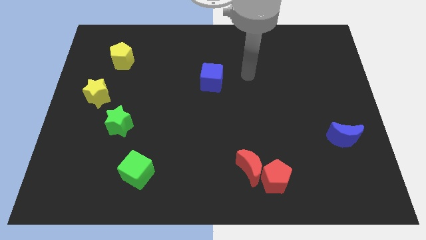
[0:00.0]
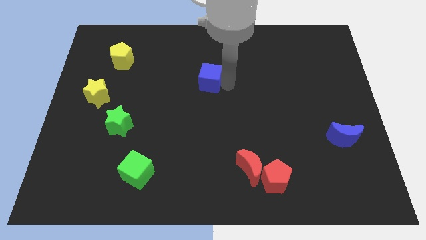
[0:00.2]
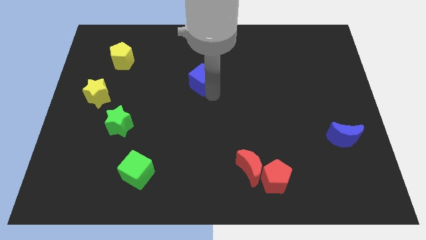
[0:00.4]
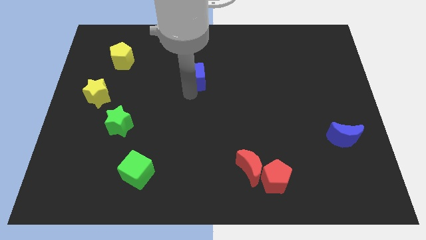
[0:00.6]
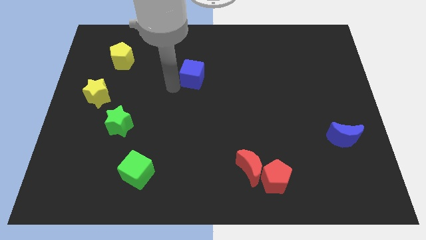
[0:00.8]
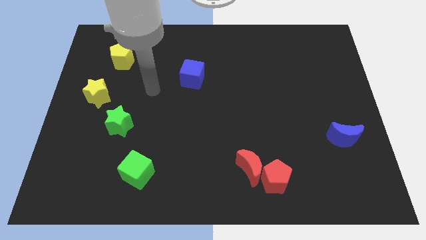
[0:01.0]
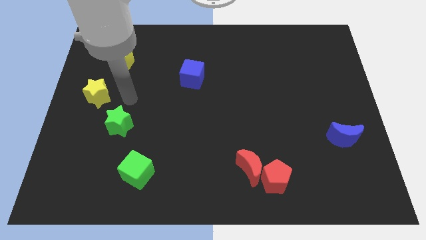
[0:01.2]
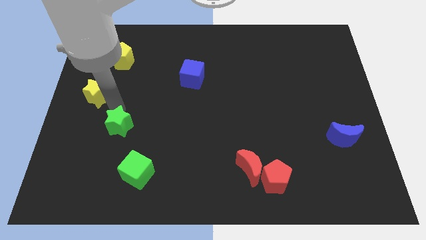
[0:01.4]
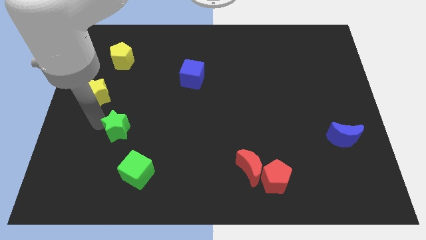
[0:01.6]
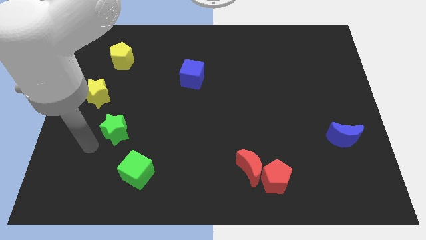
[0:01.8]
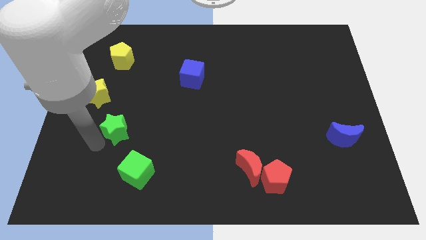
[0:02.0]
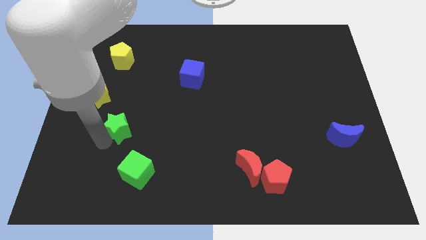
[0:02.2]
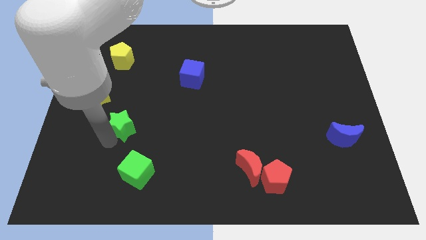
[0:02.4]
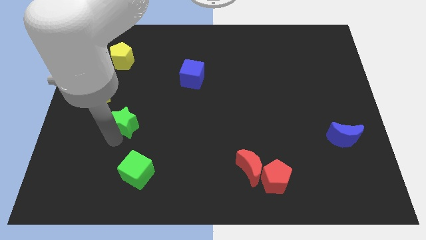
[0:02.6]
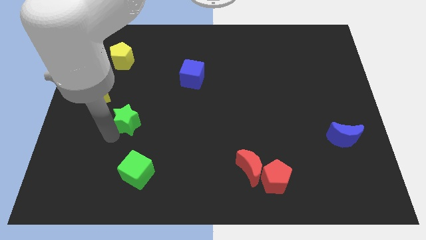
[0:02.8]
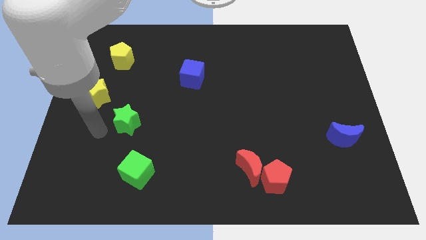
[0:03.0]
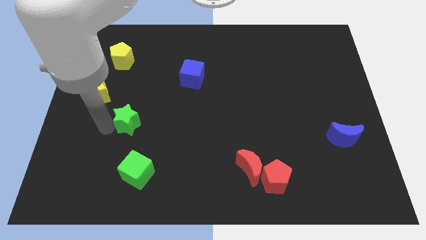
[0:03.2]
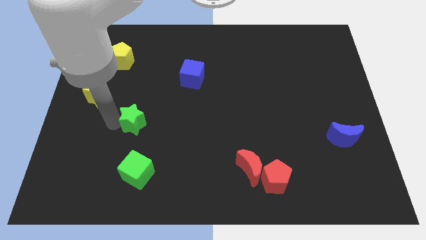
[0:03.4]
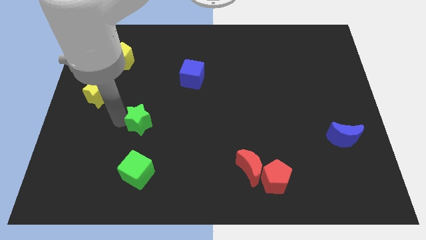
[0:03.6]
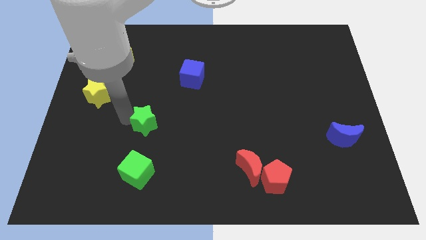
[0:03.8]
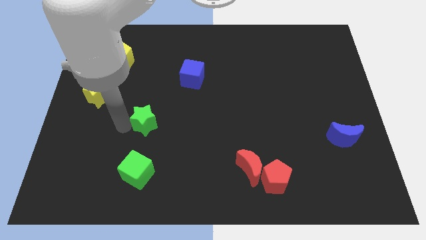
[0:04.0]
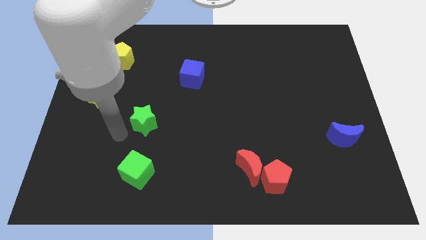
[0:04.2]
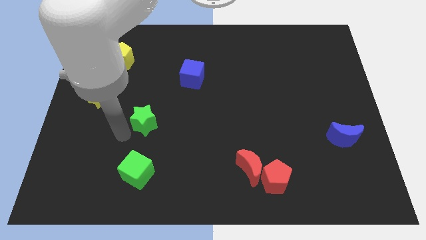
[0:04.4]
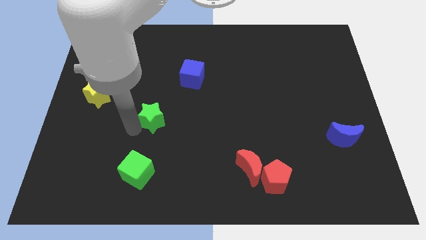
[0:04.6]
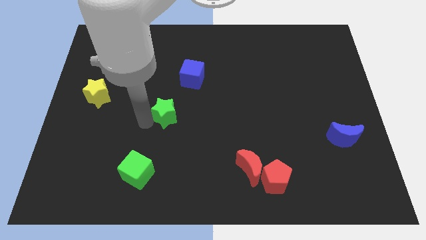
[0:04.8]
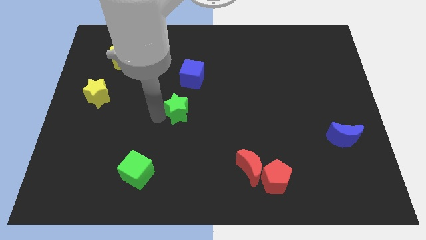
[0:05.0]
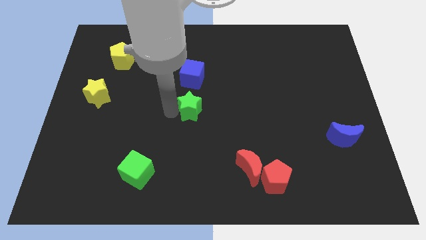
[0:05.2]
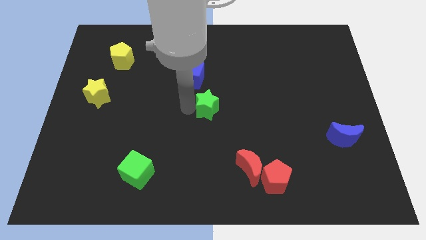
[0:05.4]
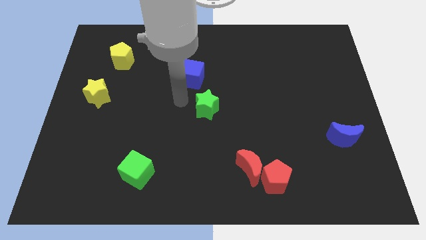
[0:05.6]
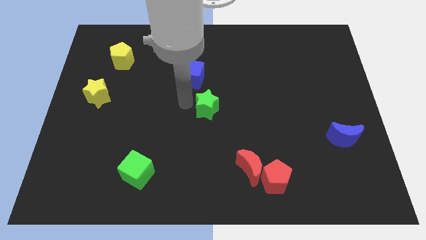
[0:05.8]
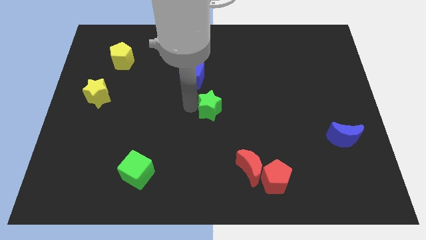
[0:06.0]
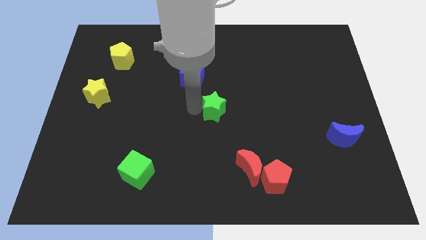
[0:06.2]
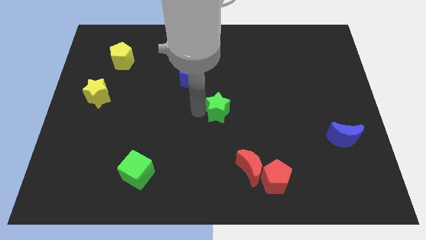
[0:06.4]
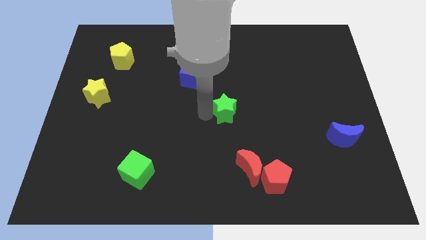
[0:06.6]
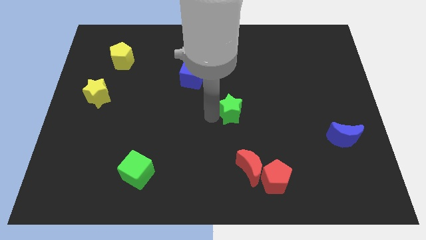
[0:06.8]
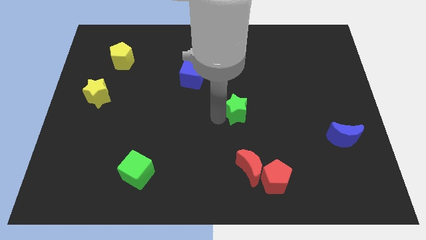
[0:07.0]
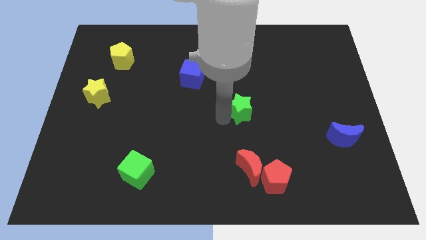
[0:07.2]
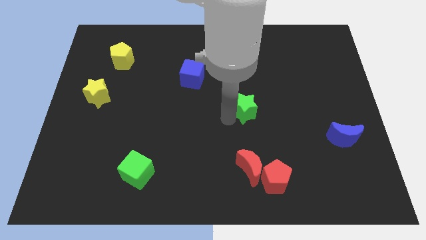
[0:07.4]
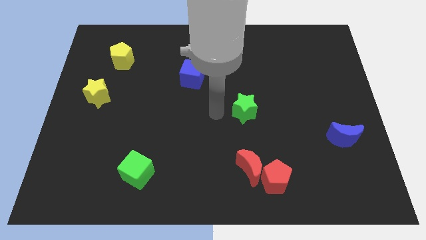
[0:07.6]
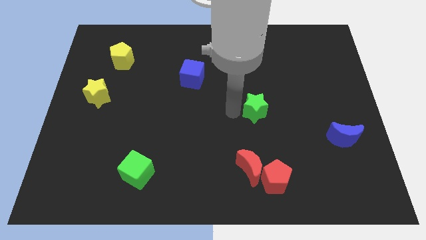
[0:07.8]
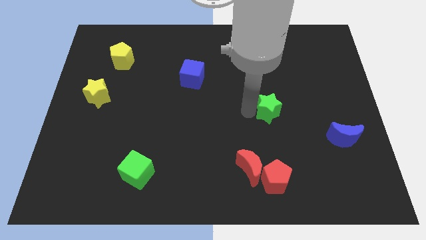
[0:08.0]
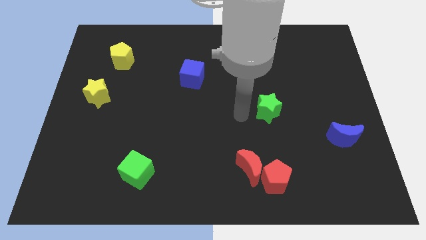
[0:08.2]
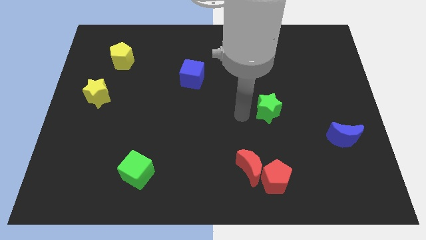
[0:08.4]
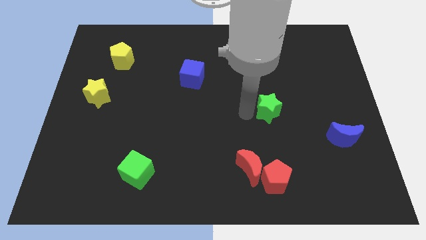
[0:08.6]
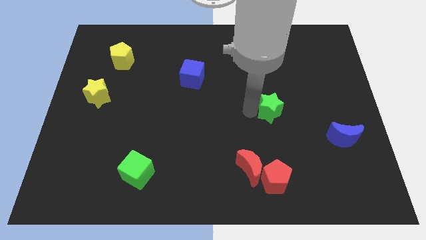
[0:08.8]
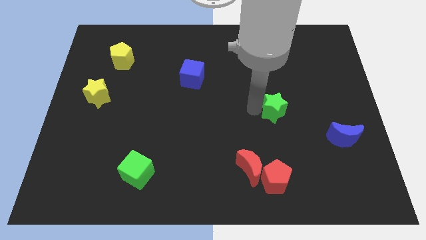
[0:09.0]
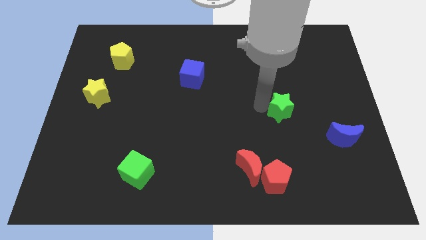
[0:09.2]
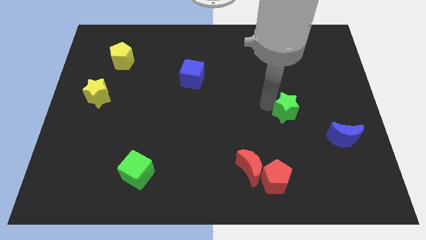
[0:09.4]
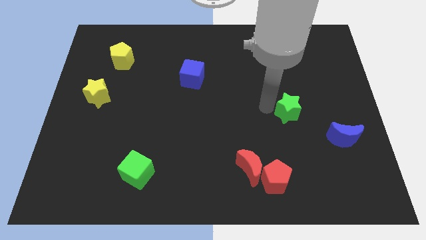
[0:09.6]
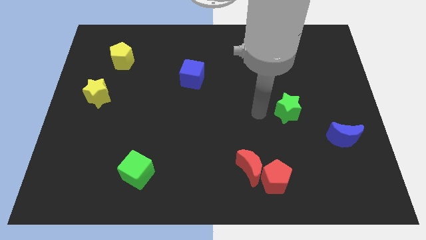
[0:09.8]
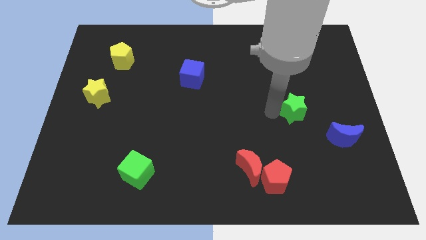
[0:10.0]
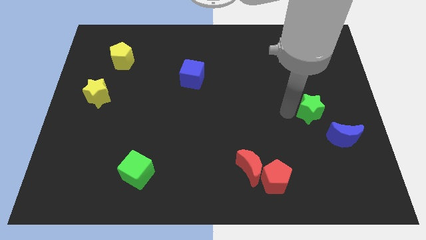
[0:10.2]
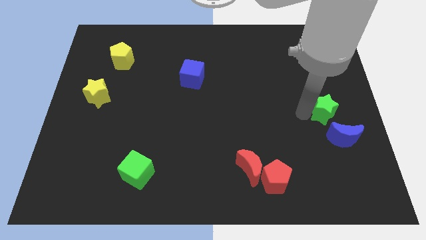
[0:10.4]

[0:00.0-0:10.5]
push the green star to the right side

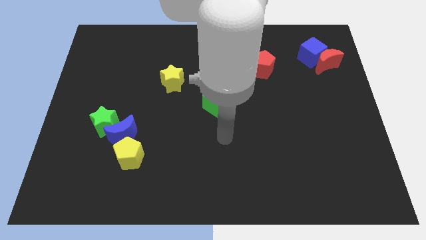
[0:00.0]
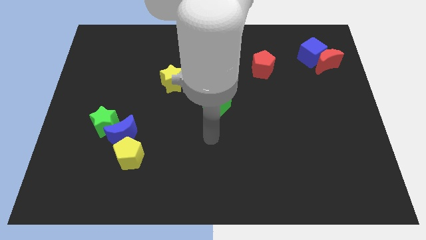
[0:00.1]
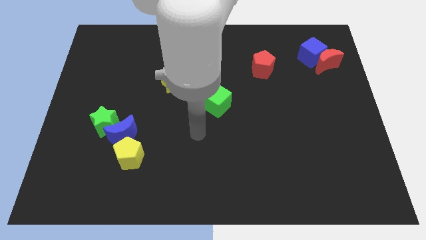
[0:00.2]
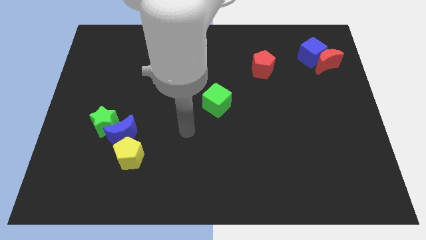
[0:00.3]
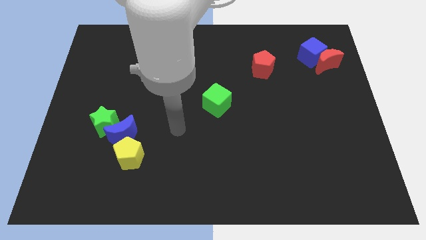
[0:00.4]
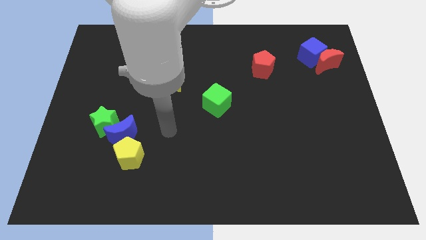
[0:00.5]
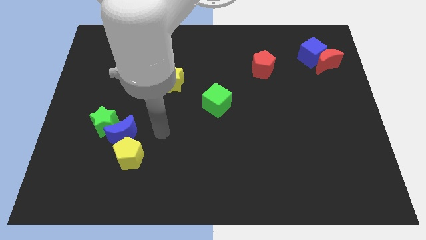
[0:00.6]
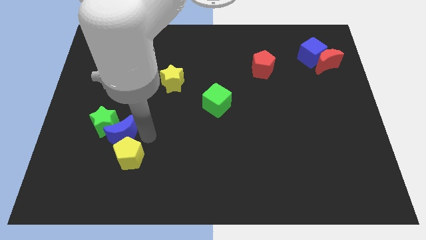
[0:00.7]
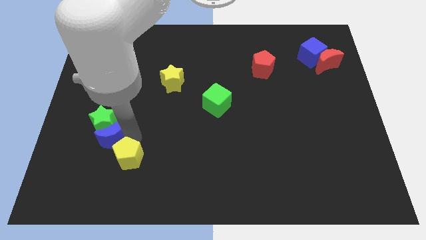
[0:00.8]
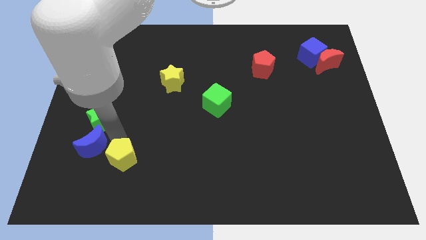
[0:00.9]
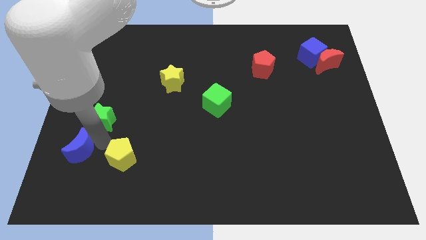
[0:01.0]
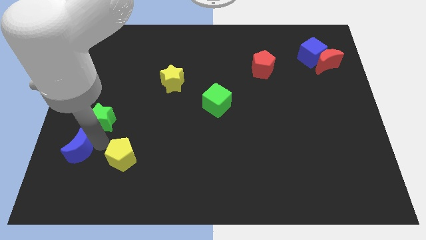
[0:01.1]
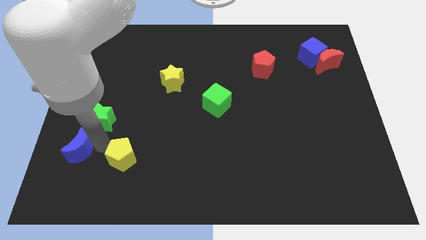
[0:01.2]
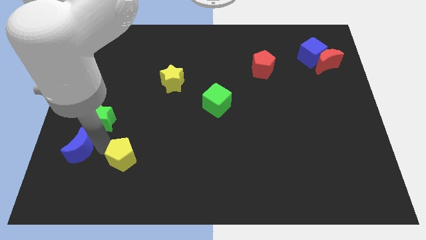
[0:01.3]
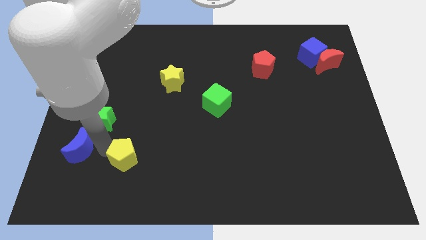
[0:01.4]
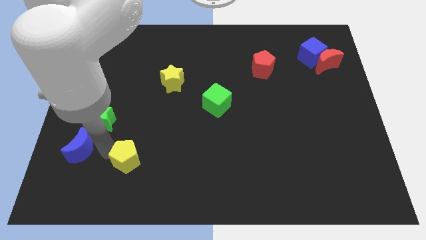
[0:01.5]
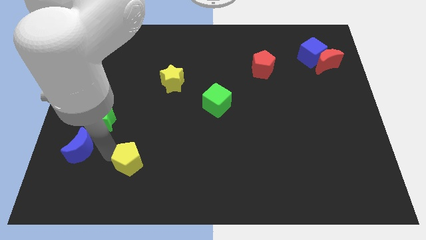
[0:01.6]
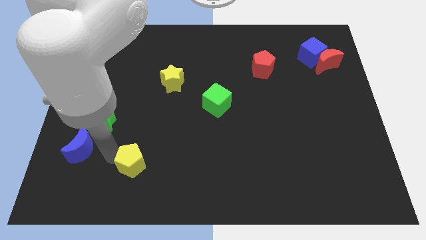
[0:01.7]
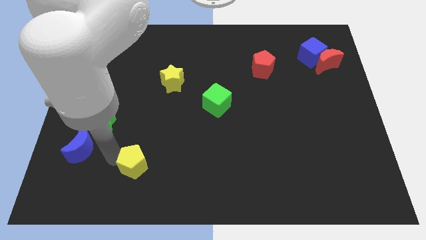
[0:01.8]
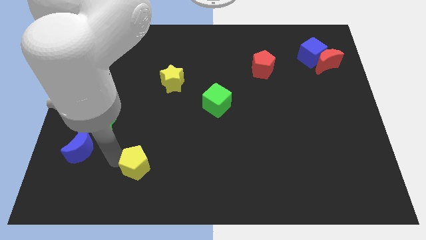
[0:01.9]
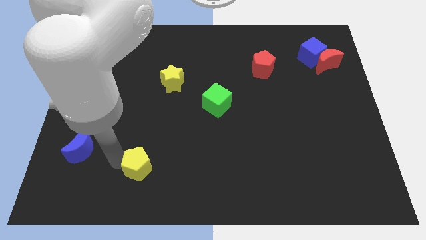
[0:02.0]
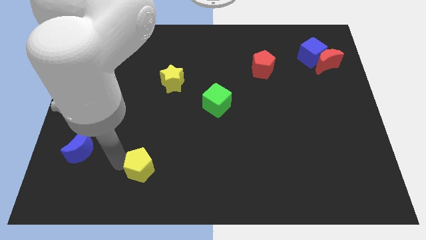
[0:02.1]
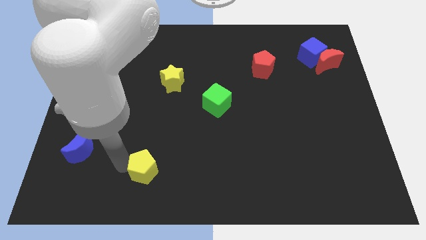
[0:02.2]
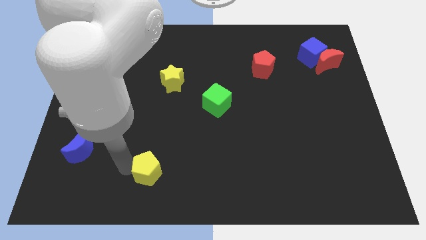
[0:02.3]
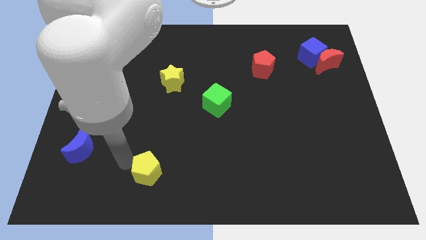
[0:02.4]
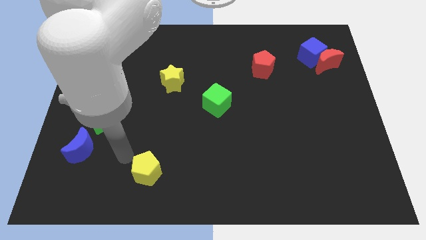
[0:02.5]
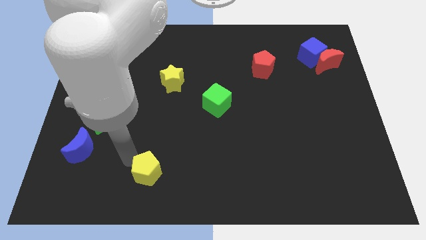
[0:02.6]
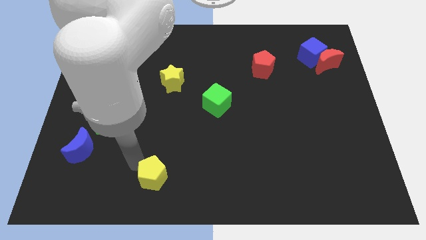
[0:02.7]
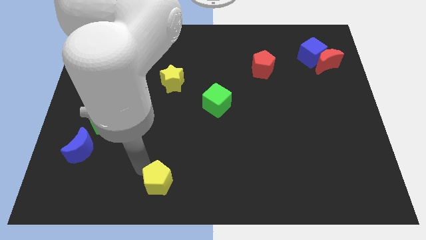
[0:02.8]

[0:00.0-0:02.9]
put the yellow pentagon to the bottom
